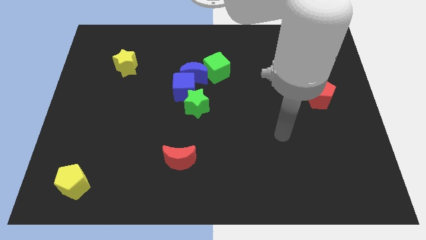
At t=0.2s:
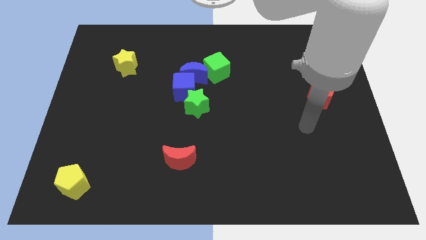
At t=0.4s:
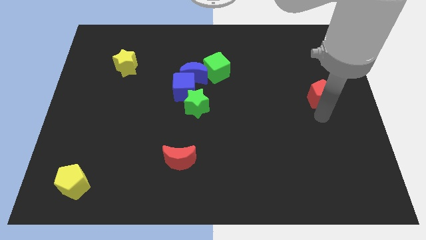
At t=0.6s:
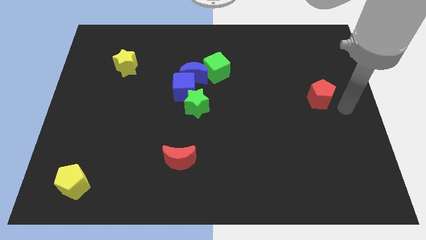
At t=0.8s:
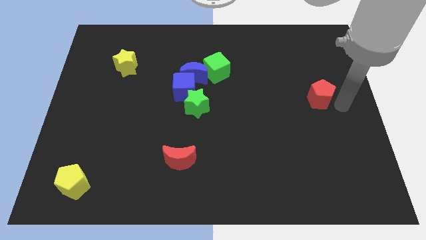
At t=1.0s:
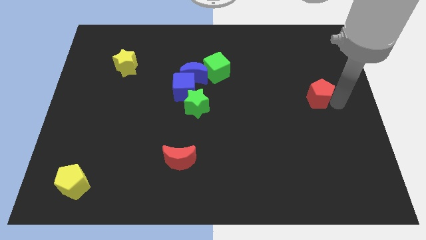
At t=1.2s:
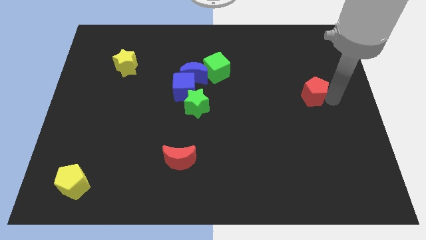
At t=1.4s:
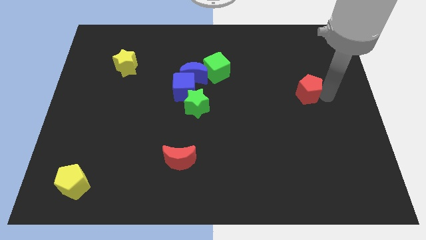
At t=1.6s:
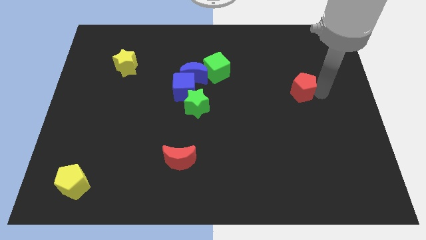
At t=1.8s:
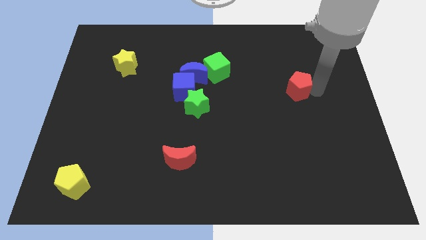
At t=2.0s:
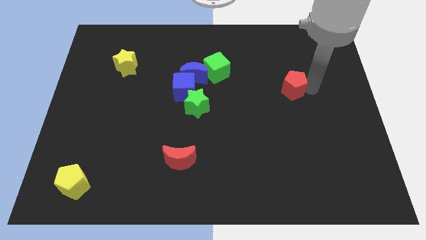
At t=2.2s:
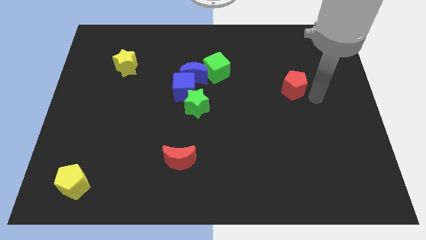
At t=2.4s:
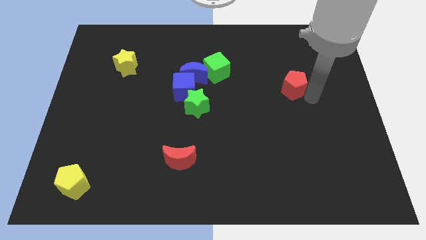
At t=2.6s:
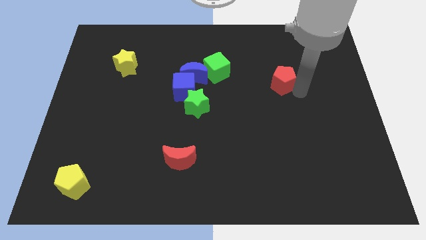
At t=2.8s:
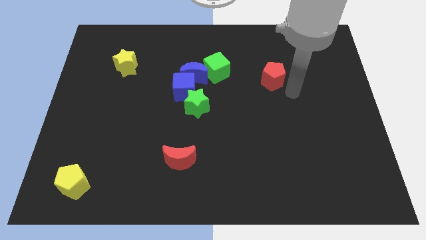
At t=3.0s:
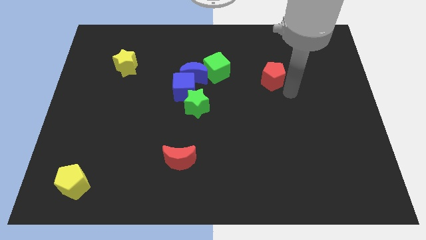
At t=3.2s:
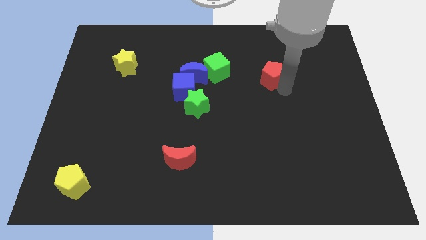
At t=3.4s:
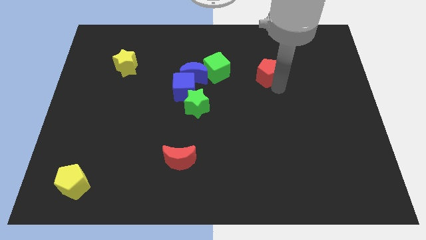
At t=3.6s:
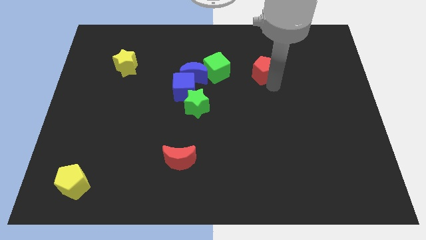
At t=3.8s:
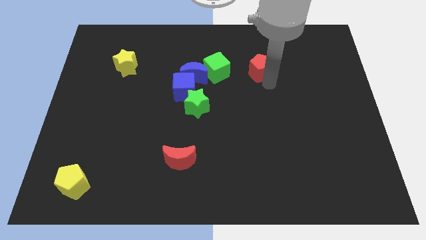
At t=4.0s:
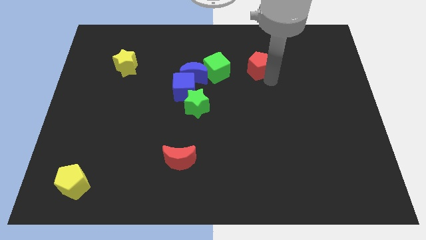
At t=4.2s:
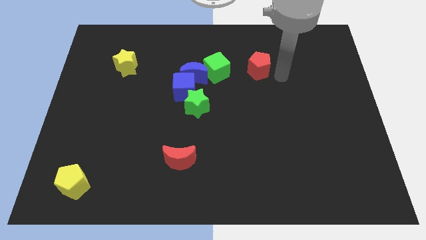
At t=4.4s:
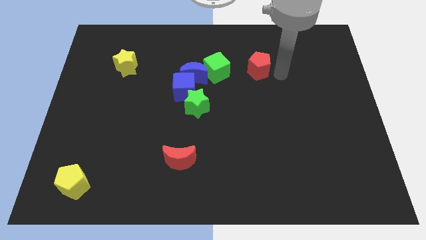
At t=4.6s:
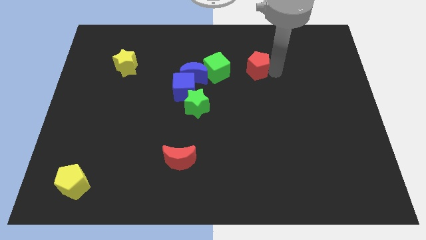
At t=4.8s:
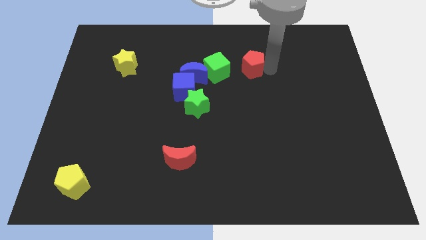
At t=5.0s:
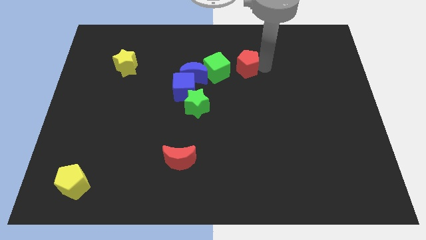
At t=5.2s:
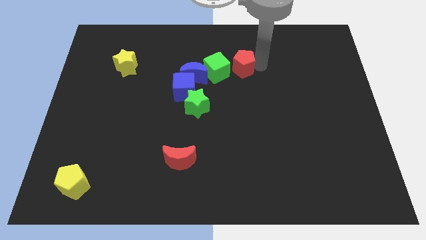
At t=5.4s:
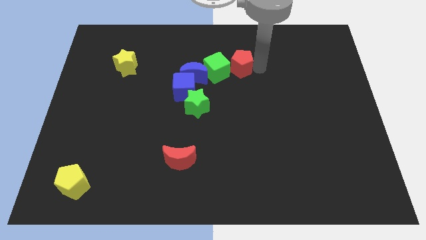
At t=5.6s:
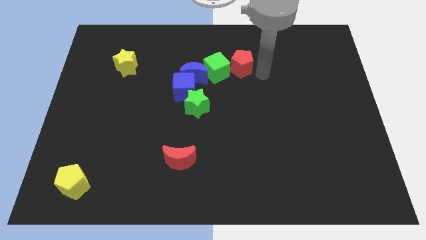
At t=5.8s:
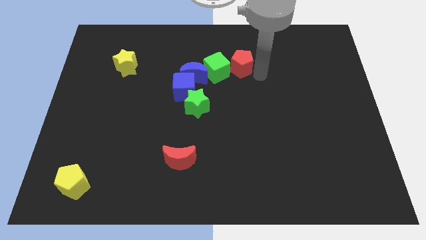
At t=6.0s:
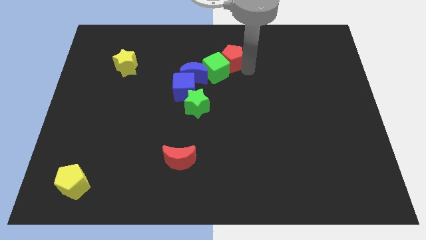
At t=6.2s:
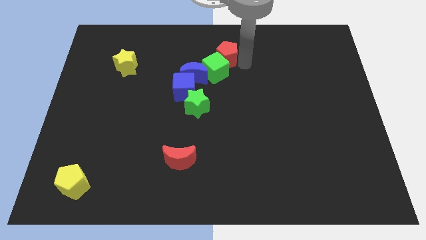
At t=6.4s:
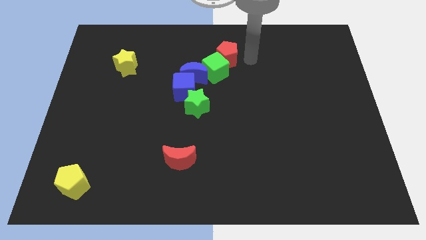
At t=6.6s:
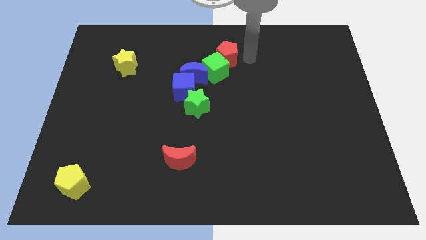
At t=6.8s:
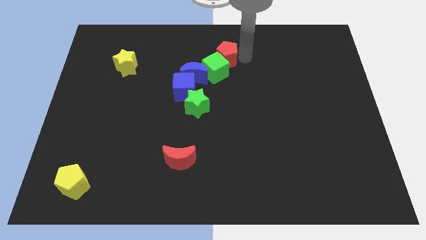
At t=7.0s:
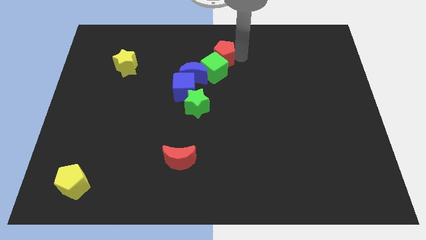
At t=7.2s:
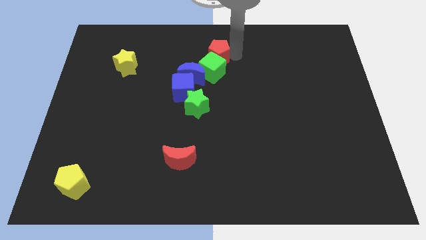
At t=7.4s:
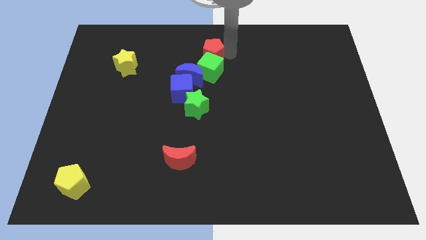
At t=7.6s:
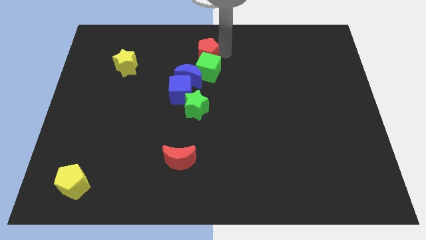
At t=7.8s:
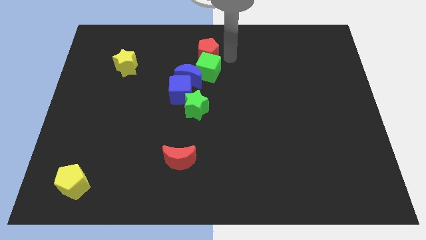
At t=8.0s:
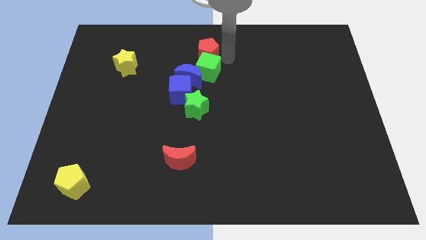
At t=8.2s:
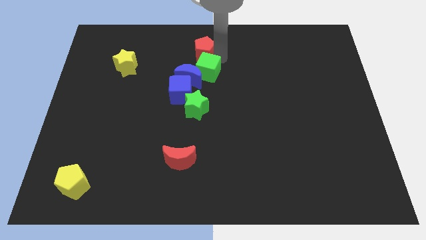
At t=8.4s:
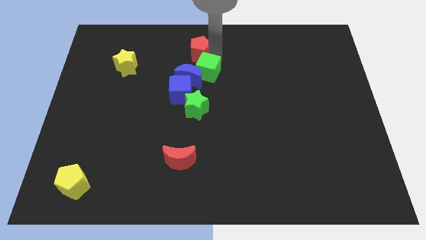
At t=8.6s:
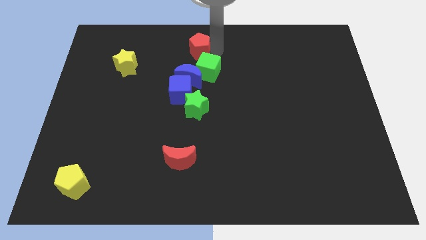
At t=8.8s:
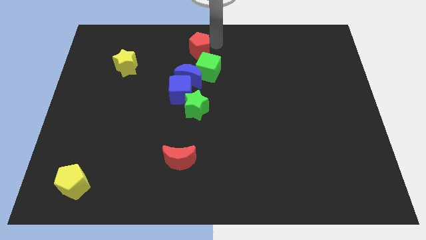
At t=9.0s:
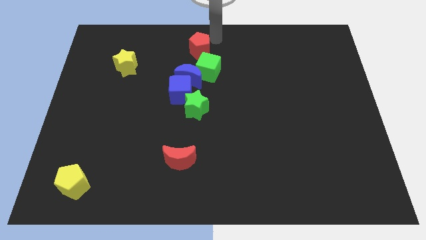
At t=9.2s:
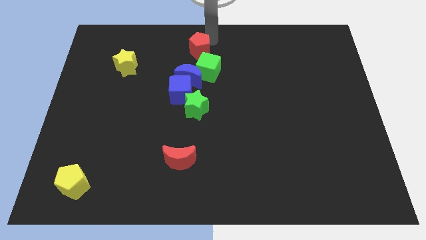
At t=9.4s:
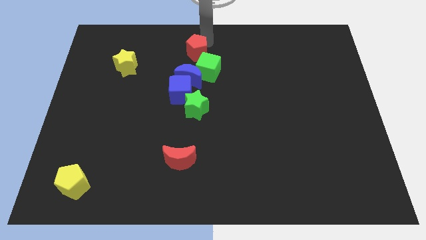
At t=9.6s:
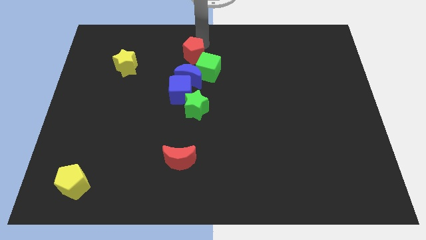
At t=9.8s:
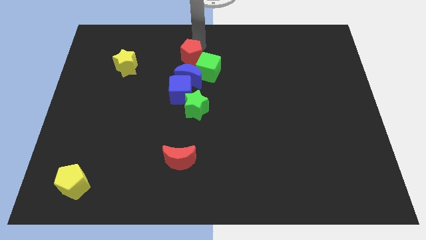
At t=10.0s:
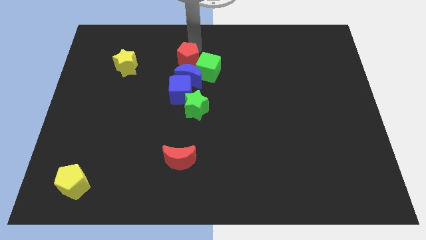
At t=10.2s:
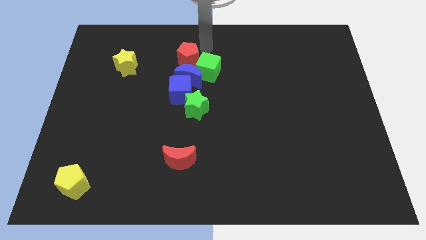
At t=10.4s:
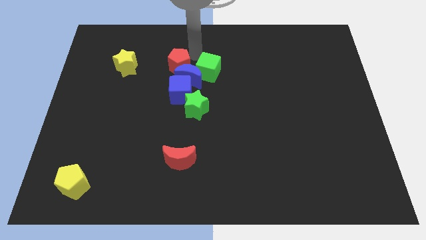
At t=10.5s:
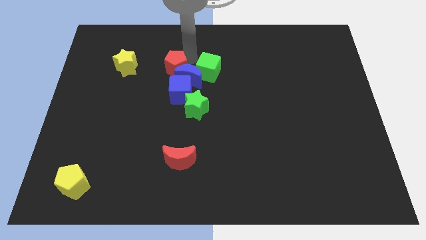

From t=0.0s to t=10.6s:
slide the red pentagon to the top left side of the blue cube
